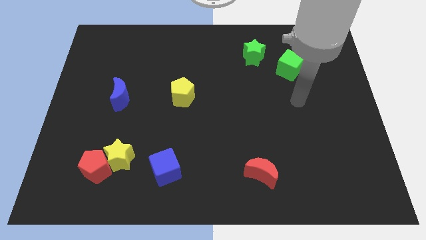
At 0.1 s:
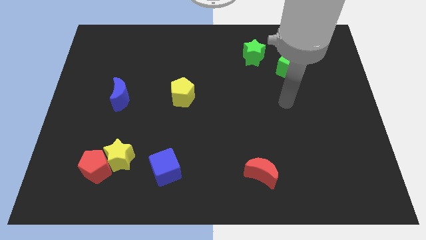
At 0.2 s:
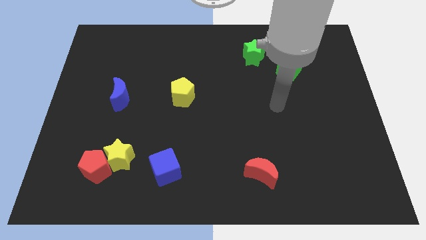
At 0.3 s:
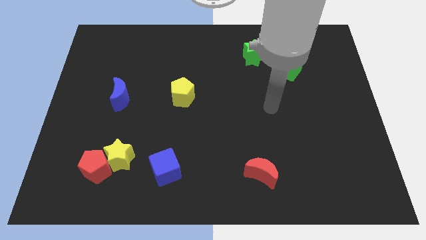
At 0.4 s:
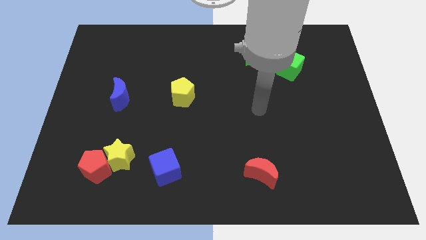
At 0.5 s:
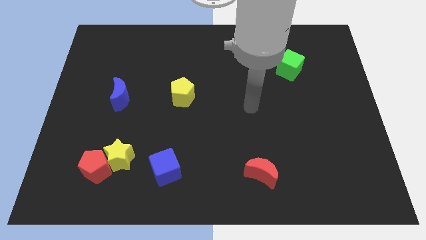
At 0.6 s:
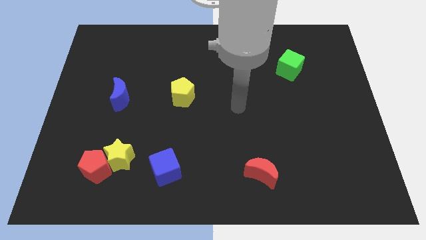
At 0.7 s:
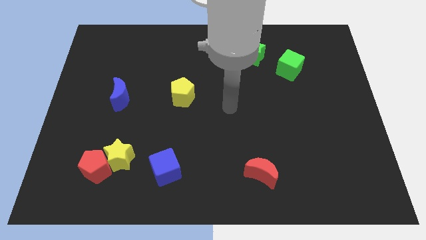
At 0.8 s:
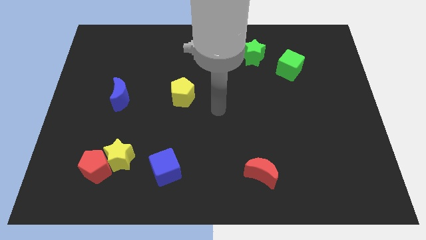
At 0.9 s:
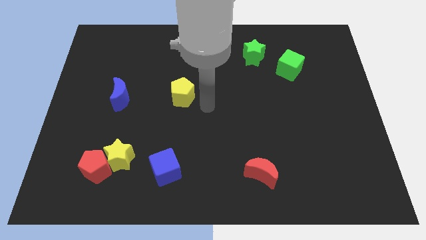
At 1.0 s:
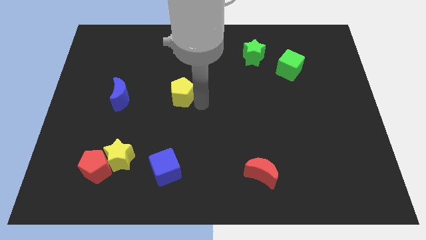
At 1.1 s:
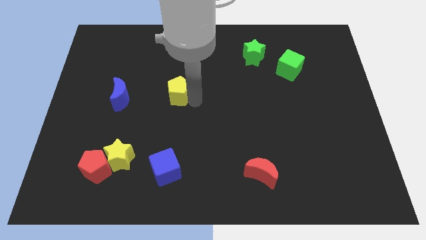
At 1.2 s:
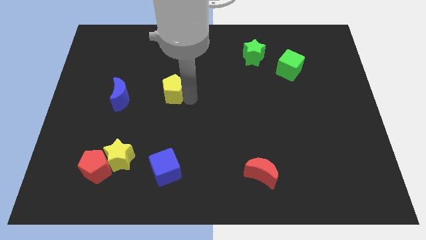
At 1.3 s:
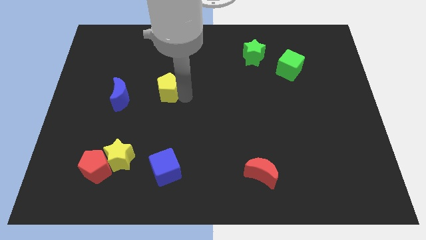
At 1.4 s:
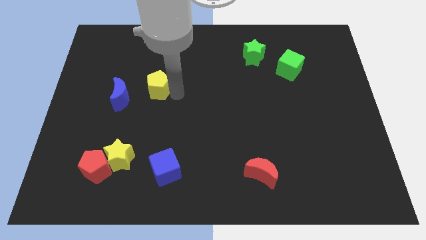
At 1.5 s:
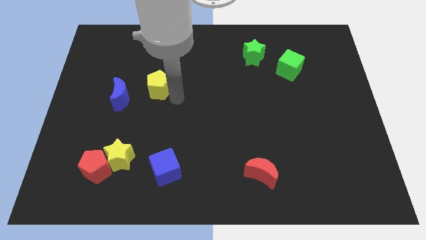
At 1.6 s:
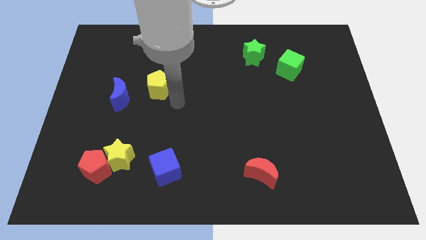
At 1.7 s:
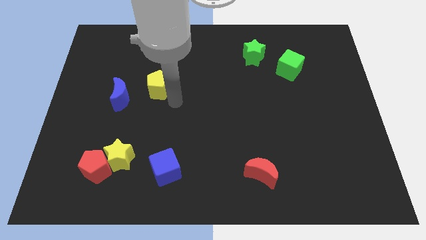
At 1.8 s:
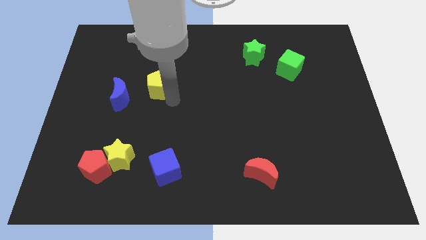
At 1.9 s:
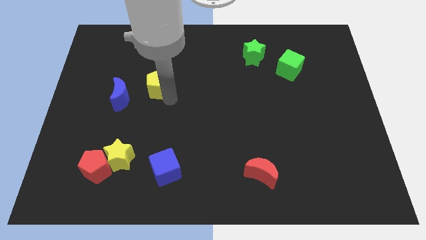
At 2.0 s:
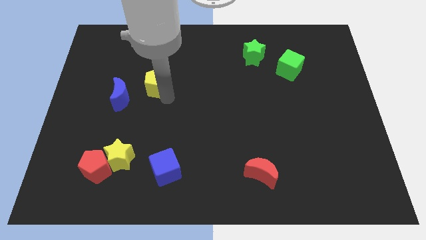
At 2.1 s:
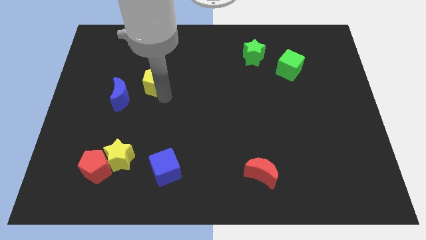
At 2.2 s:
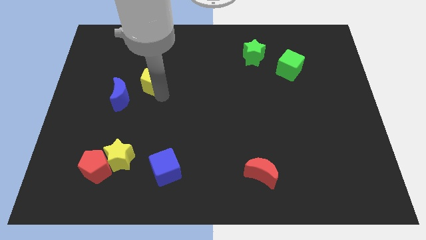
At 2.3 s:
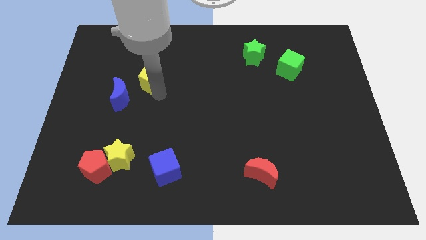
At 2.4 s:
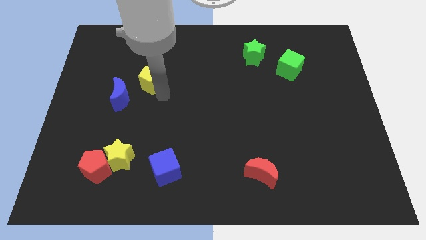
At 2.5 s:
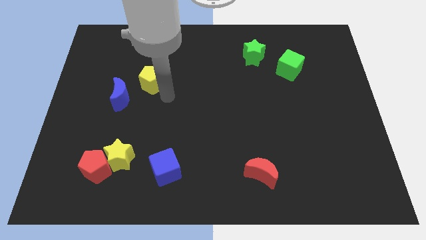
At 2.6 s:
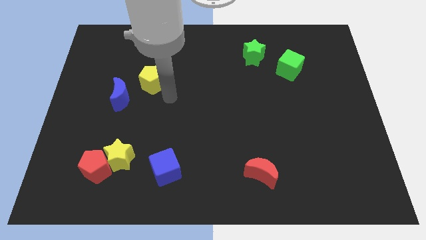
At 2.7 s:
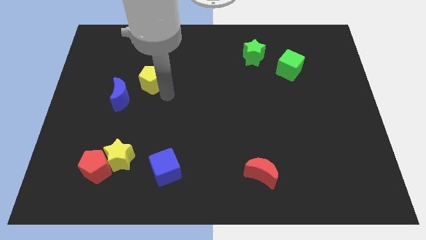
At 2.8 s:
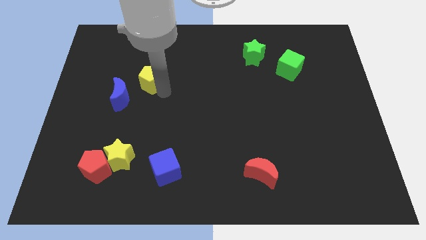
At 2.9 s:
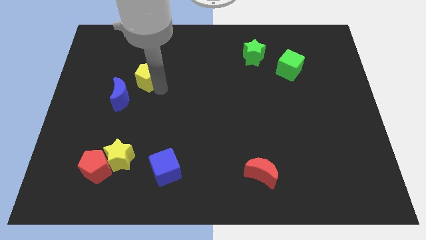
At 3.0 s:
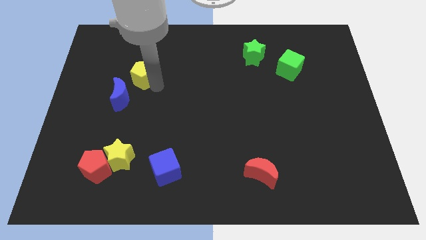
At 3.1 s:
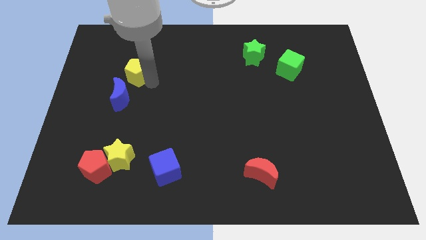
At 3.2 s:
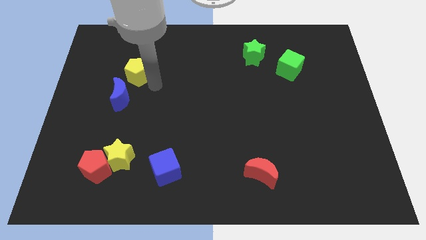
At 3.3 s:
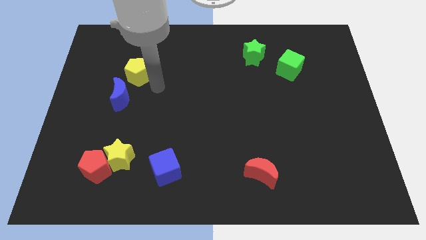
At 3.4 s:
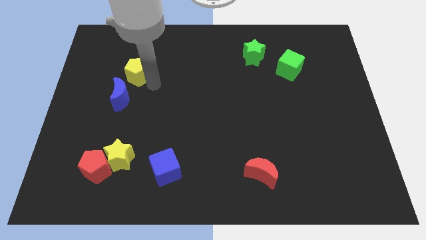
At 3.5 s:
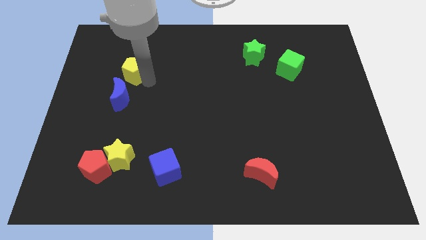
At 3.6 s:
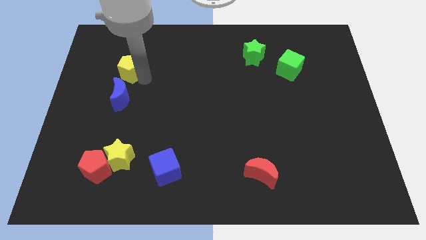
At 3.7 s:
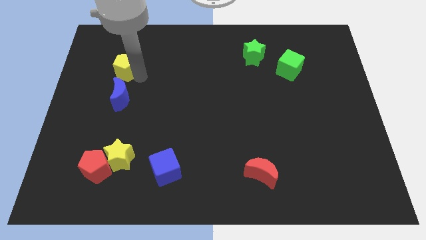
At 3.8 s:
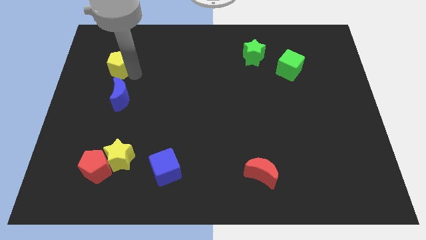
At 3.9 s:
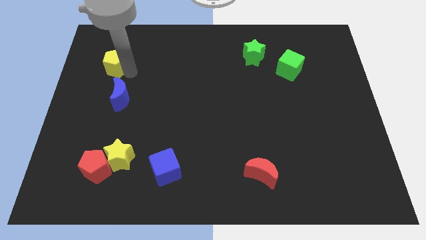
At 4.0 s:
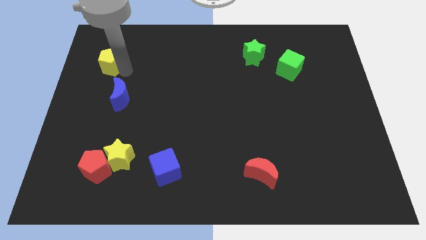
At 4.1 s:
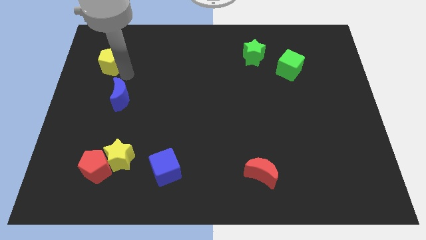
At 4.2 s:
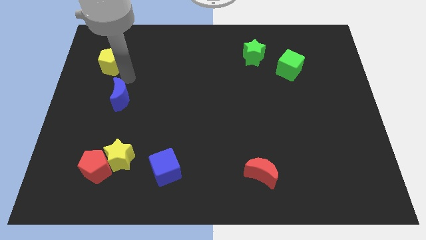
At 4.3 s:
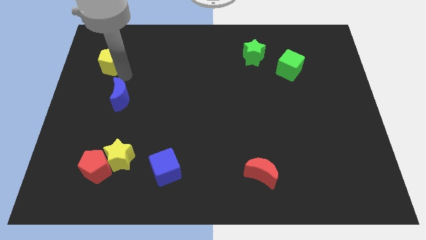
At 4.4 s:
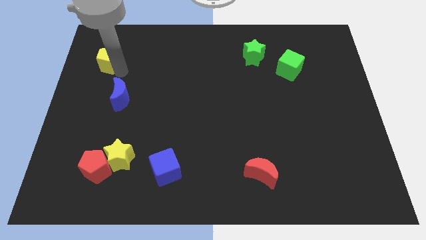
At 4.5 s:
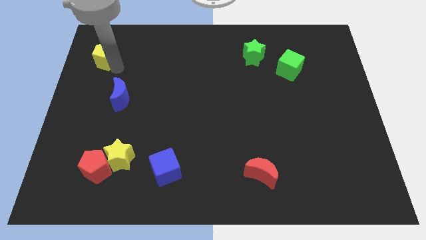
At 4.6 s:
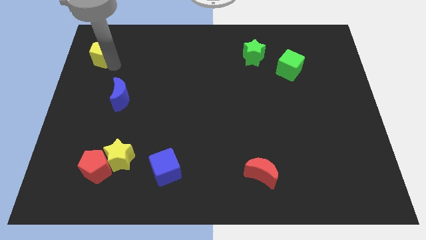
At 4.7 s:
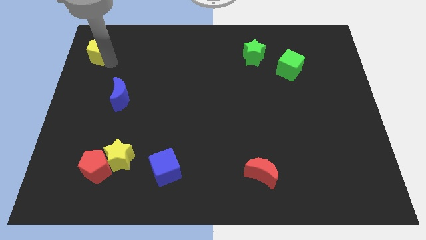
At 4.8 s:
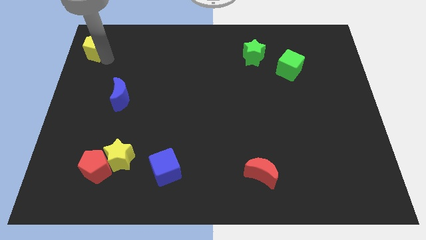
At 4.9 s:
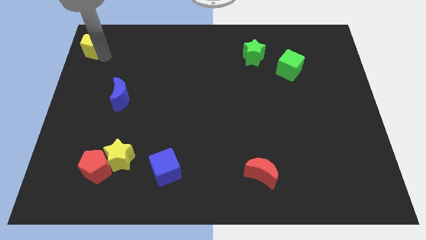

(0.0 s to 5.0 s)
push the yellow pentagon to the top left

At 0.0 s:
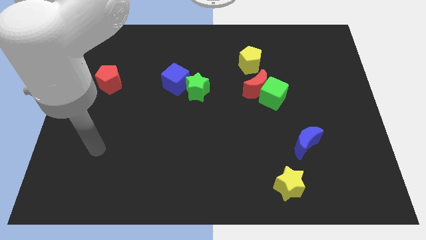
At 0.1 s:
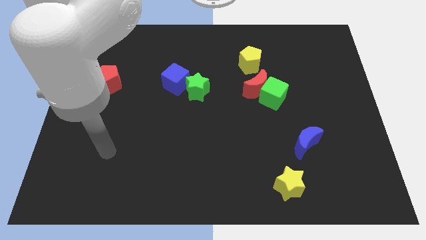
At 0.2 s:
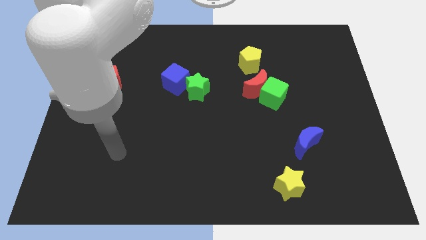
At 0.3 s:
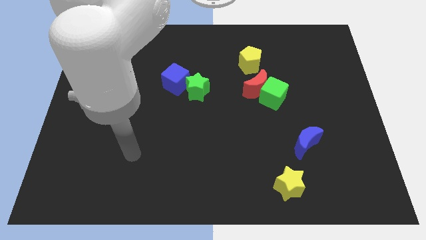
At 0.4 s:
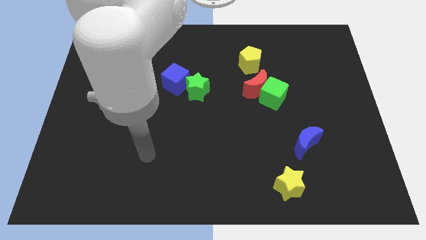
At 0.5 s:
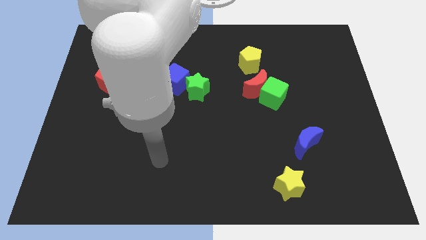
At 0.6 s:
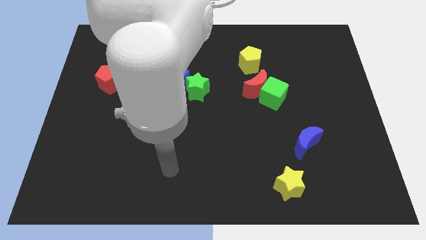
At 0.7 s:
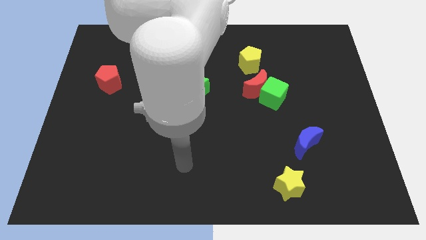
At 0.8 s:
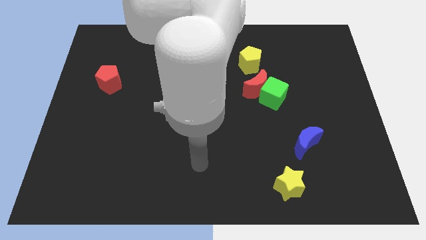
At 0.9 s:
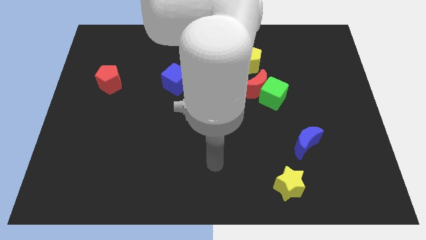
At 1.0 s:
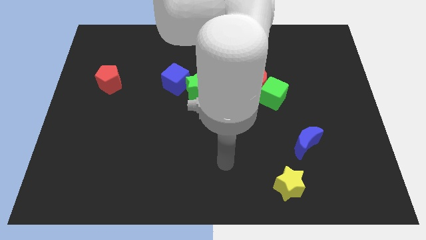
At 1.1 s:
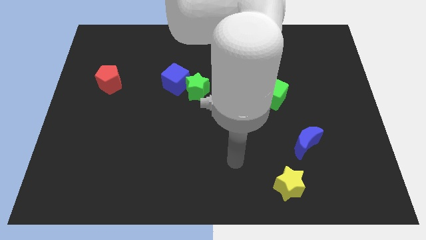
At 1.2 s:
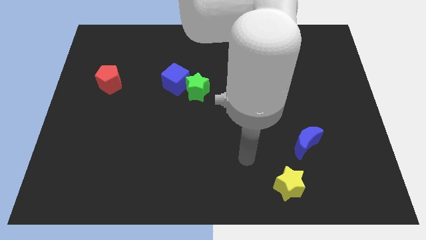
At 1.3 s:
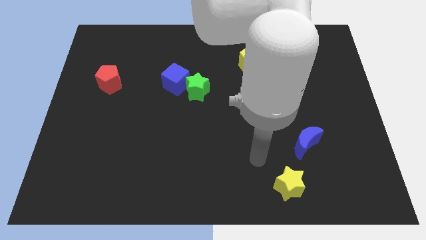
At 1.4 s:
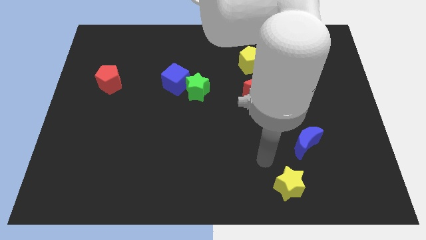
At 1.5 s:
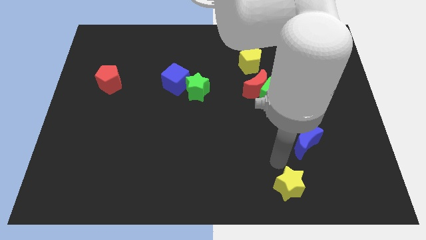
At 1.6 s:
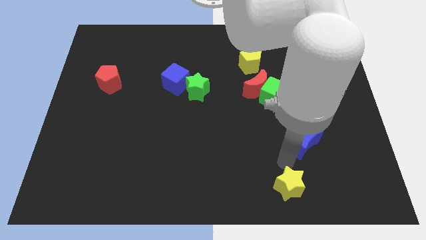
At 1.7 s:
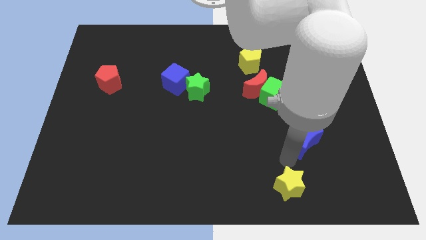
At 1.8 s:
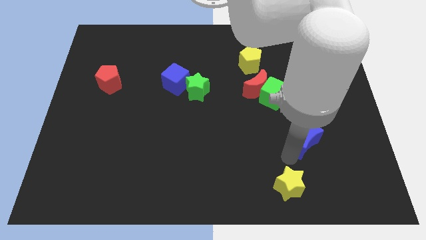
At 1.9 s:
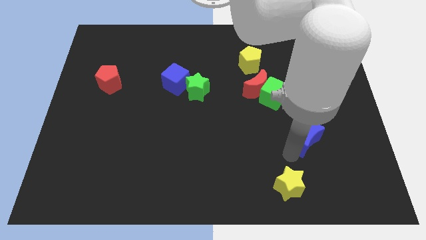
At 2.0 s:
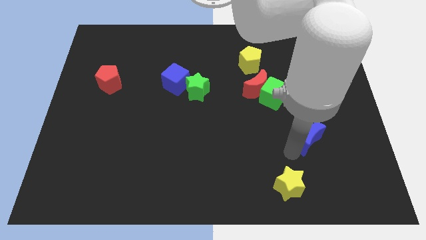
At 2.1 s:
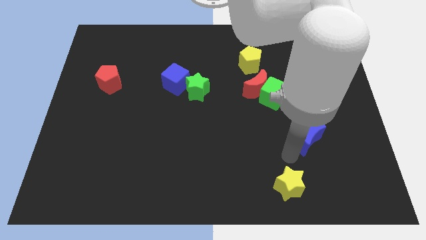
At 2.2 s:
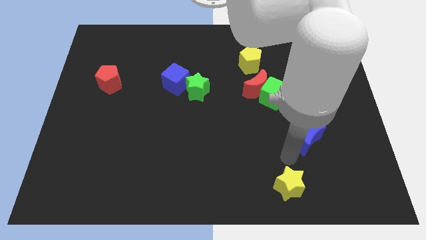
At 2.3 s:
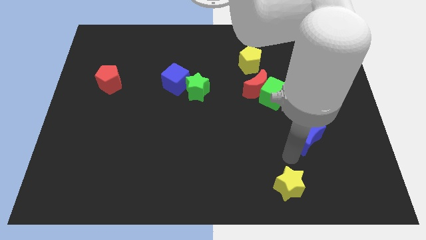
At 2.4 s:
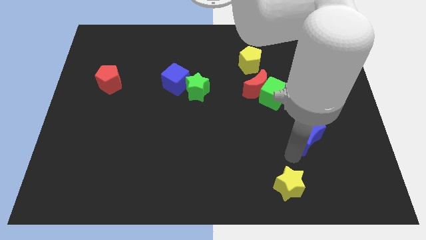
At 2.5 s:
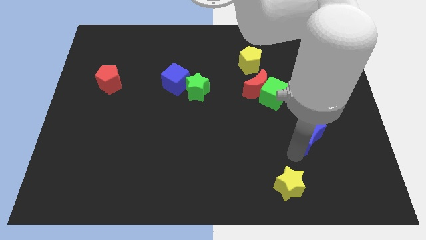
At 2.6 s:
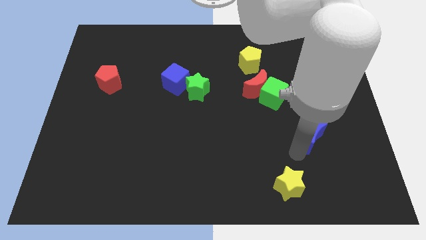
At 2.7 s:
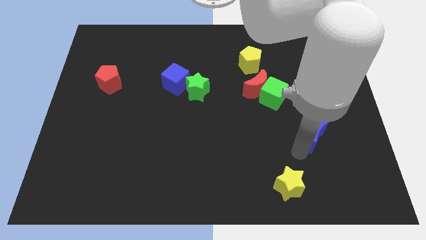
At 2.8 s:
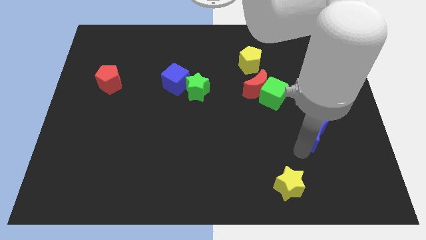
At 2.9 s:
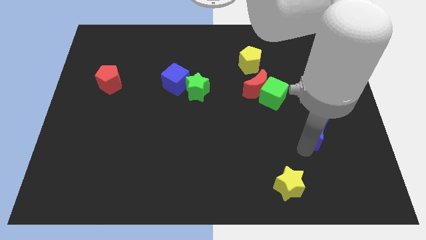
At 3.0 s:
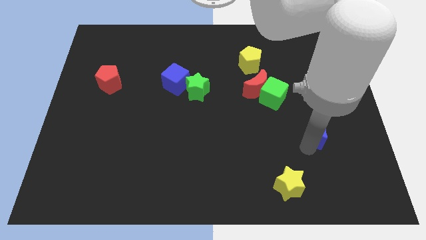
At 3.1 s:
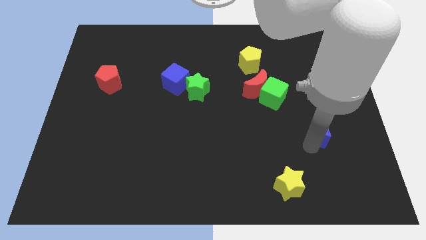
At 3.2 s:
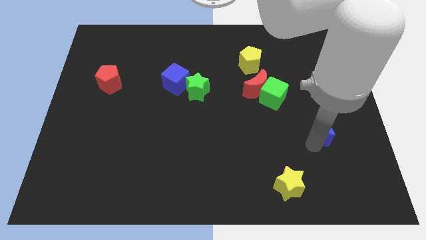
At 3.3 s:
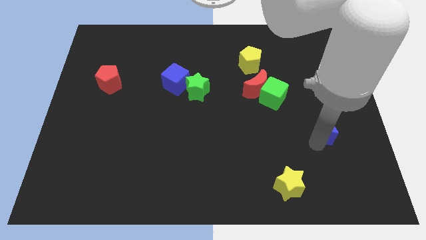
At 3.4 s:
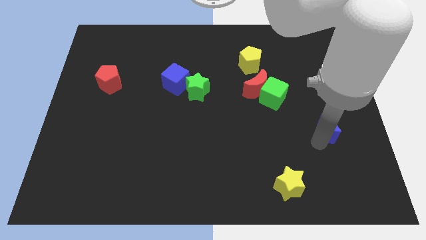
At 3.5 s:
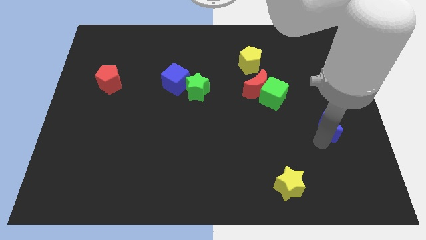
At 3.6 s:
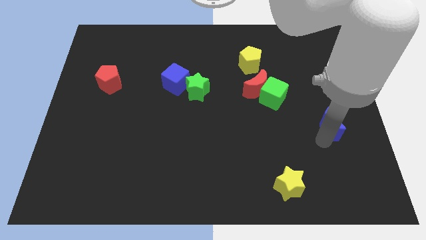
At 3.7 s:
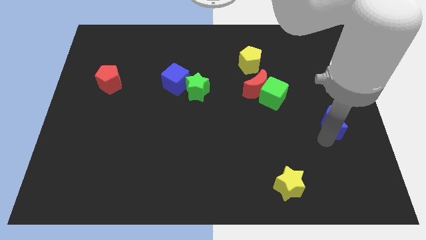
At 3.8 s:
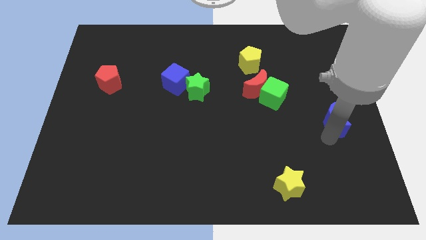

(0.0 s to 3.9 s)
move the blue moon to the right side
